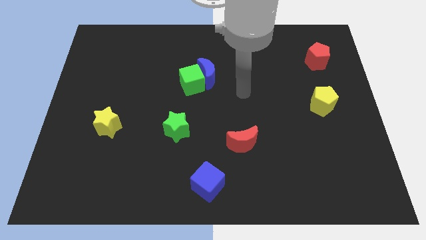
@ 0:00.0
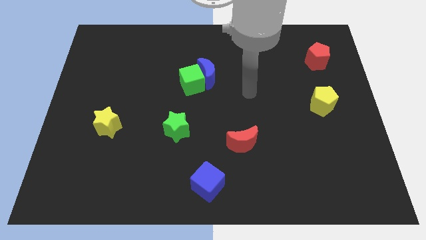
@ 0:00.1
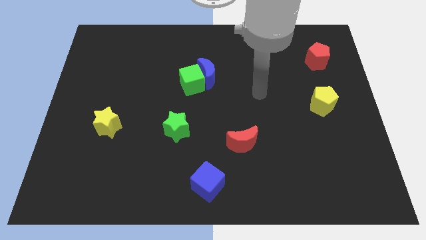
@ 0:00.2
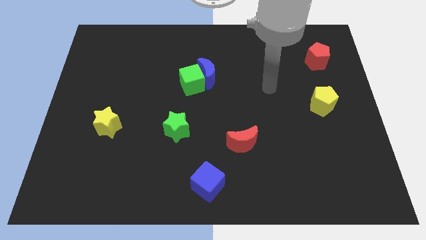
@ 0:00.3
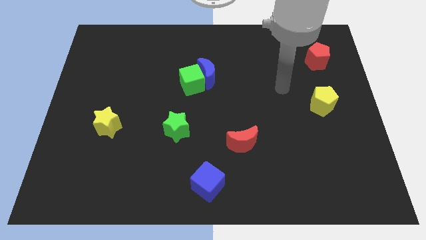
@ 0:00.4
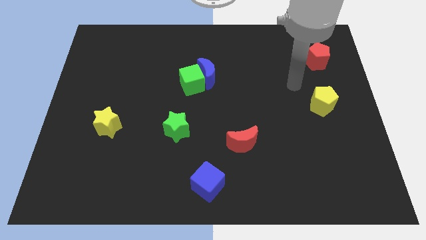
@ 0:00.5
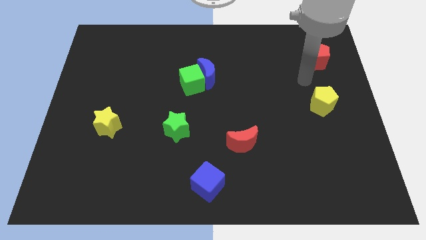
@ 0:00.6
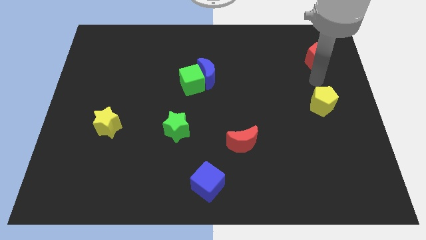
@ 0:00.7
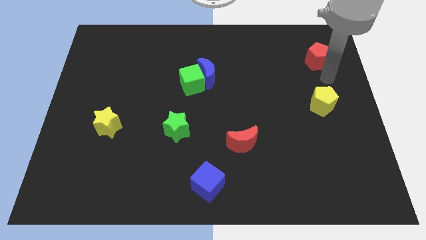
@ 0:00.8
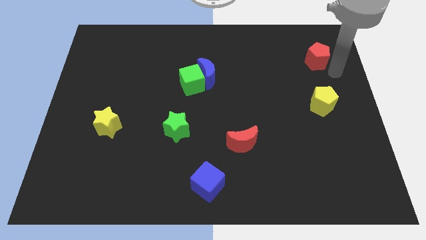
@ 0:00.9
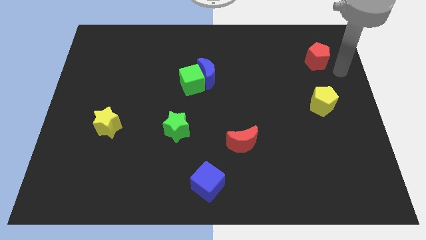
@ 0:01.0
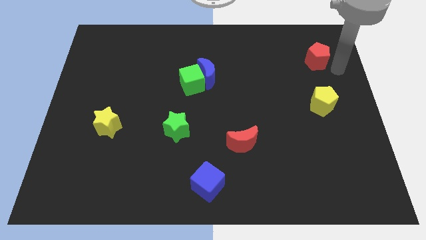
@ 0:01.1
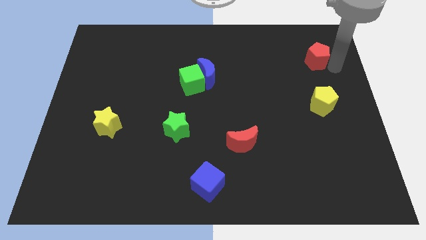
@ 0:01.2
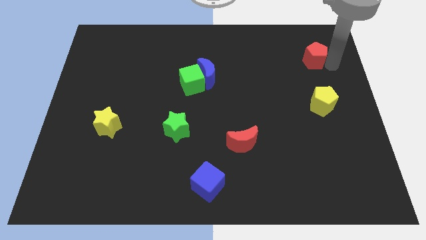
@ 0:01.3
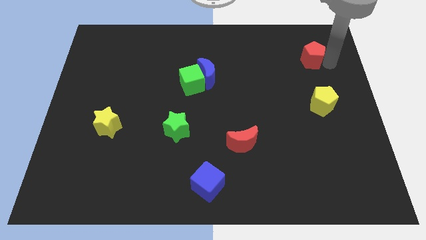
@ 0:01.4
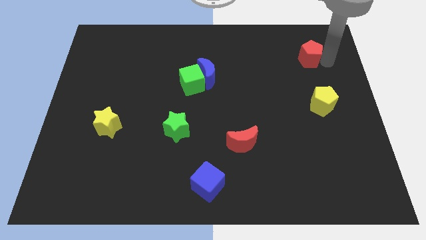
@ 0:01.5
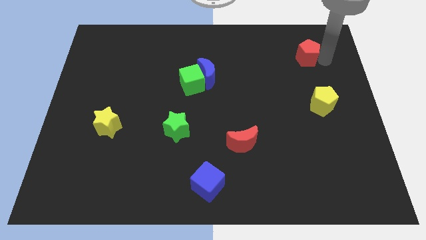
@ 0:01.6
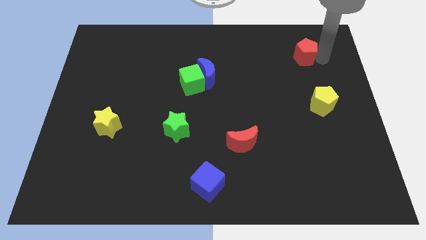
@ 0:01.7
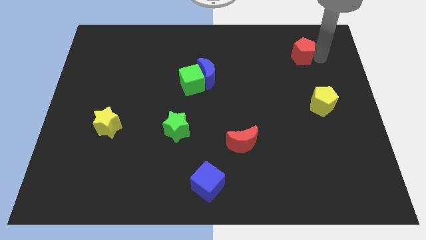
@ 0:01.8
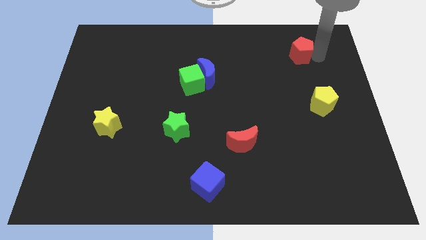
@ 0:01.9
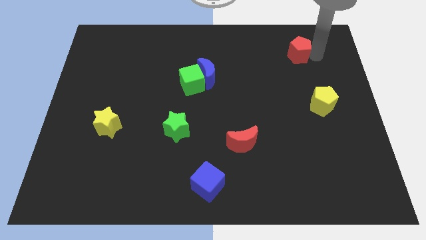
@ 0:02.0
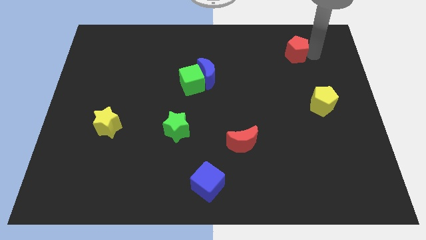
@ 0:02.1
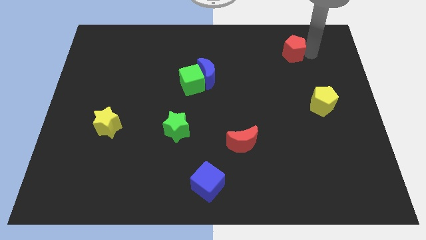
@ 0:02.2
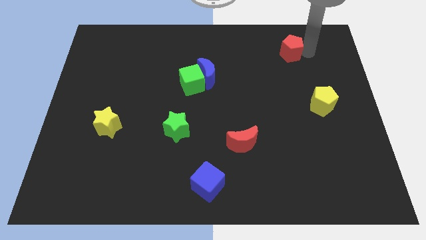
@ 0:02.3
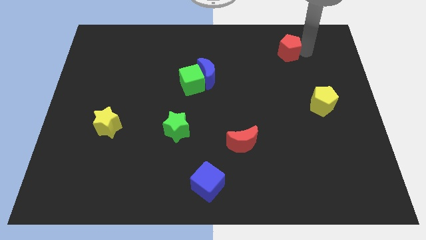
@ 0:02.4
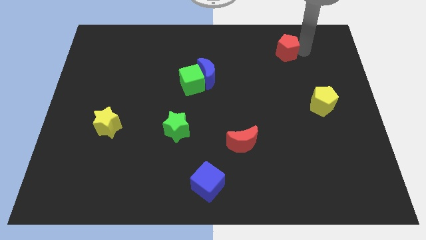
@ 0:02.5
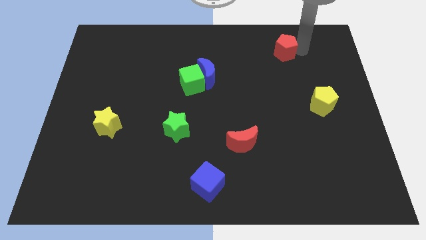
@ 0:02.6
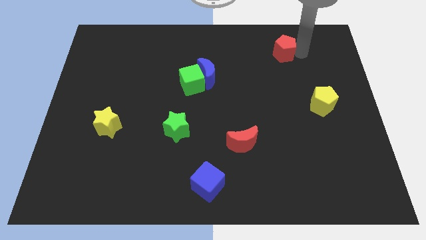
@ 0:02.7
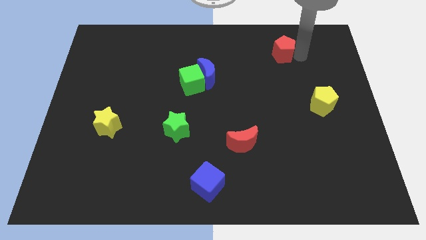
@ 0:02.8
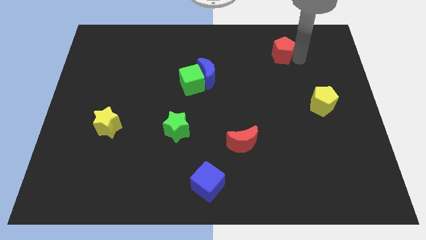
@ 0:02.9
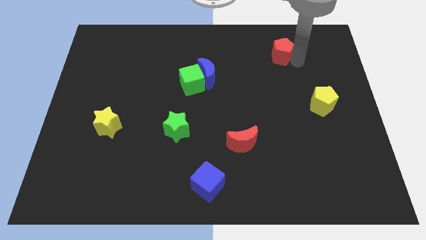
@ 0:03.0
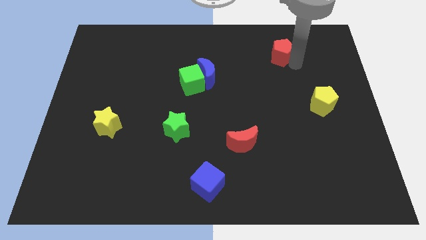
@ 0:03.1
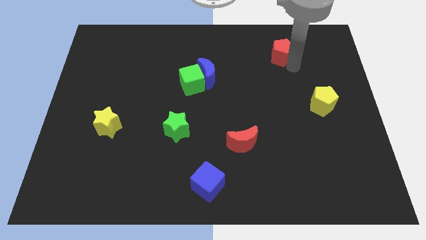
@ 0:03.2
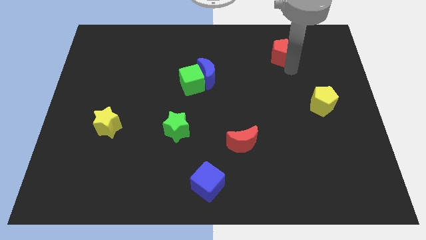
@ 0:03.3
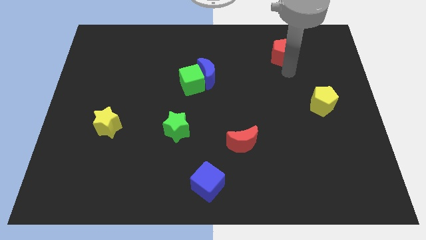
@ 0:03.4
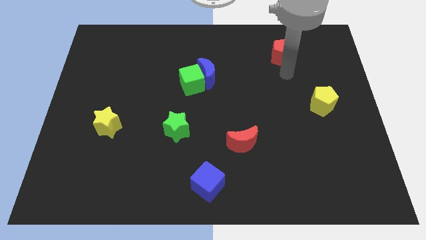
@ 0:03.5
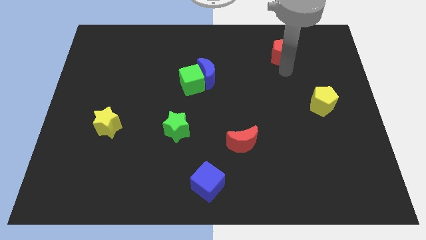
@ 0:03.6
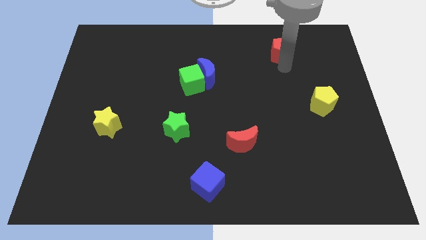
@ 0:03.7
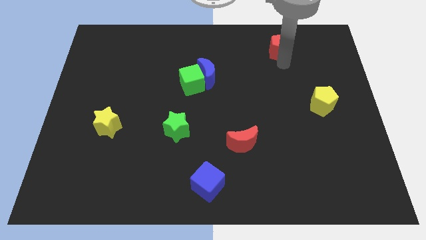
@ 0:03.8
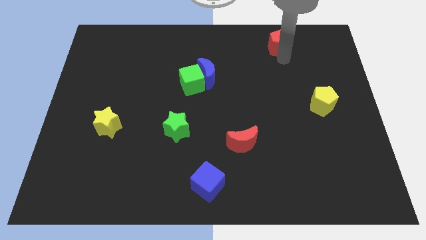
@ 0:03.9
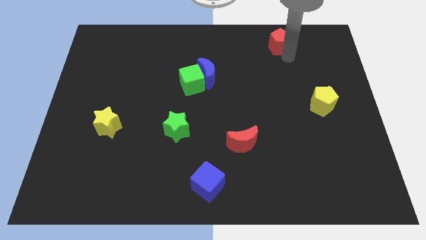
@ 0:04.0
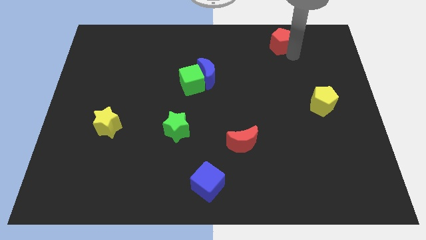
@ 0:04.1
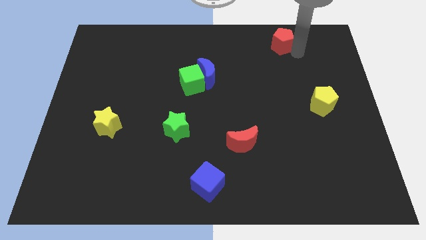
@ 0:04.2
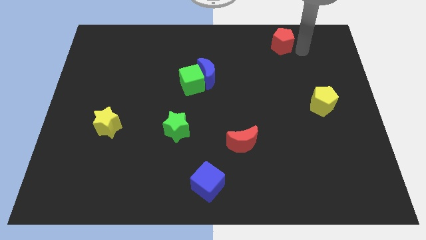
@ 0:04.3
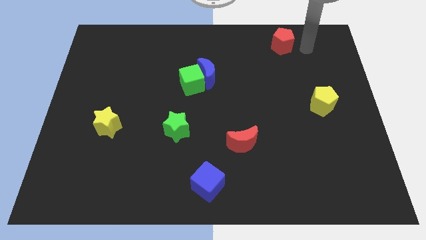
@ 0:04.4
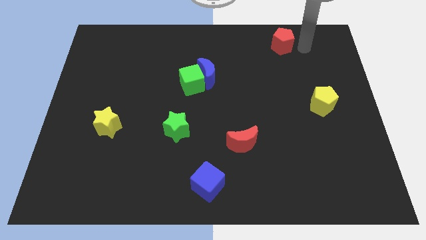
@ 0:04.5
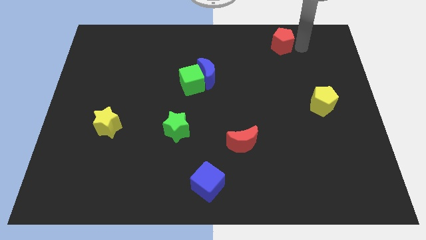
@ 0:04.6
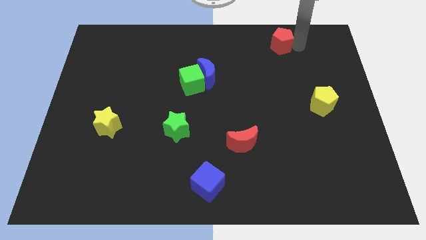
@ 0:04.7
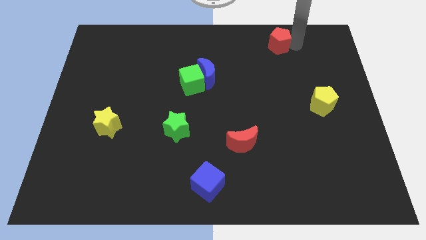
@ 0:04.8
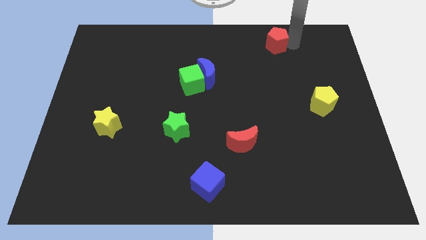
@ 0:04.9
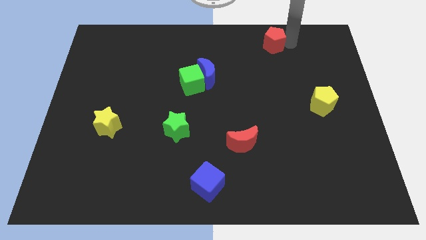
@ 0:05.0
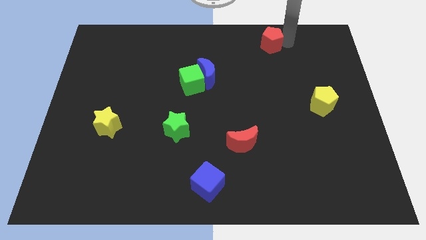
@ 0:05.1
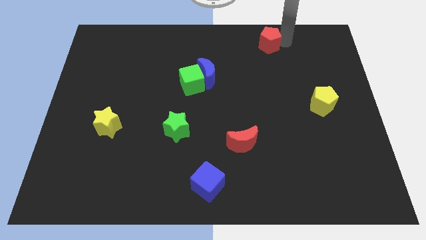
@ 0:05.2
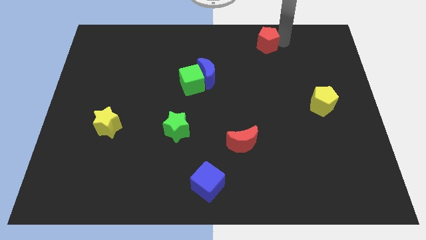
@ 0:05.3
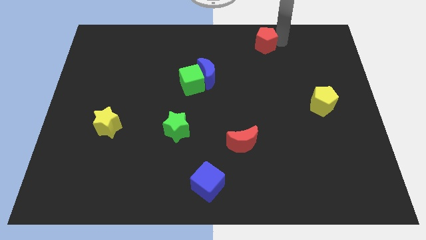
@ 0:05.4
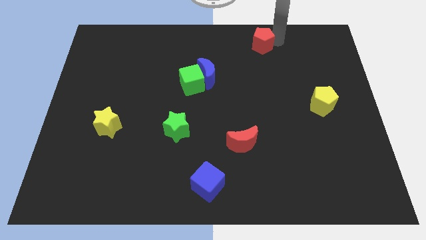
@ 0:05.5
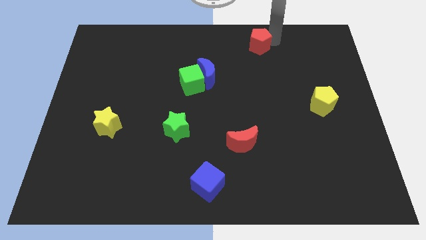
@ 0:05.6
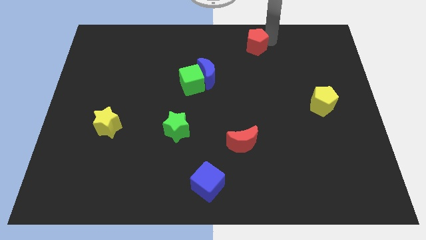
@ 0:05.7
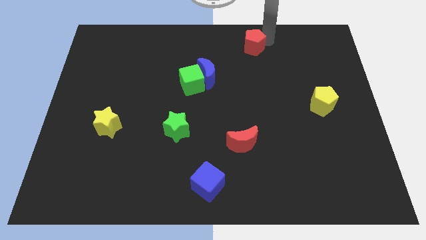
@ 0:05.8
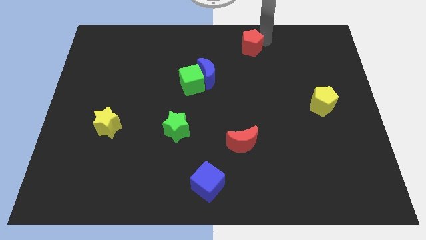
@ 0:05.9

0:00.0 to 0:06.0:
move the red pentagon to the top
